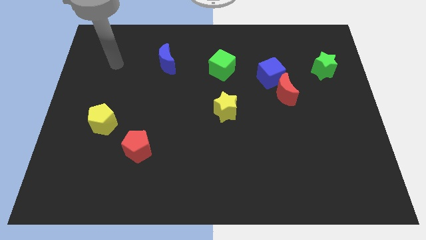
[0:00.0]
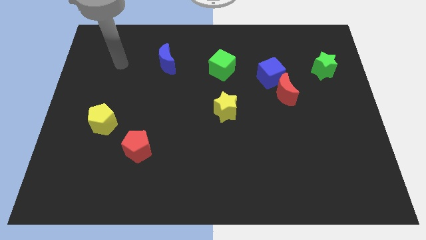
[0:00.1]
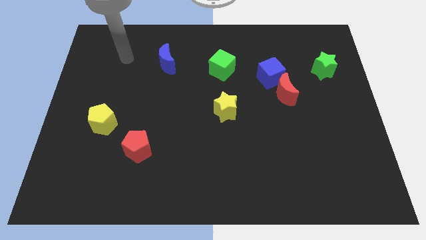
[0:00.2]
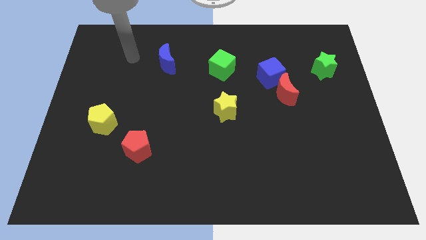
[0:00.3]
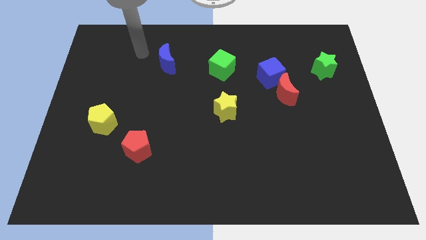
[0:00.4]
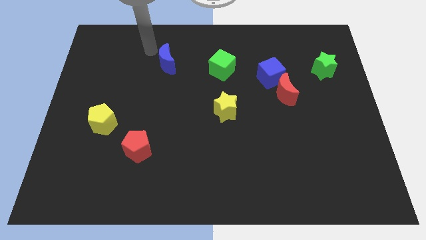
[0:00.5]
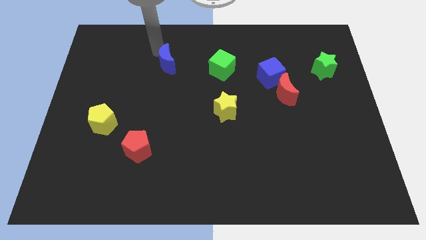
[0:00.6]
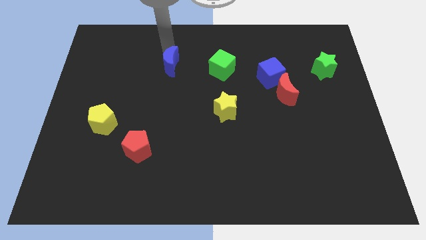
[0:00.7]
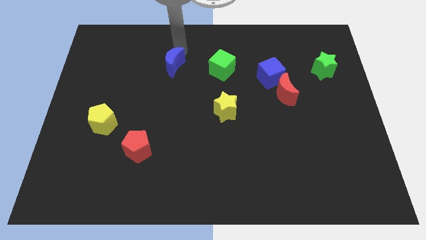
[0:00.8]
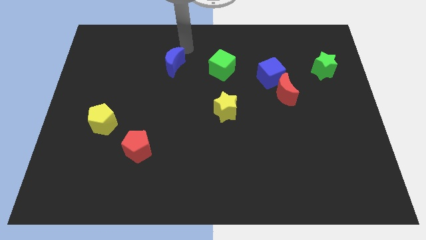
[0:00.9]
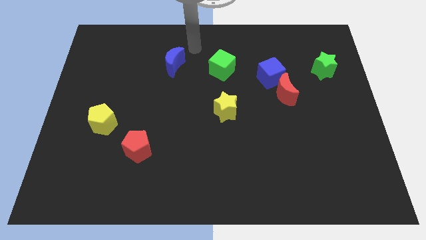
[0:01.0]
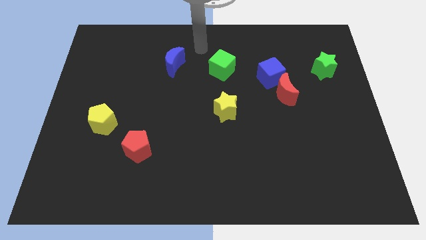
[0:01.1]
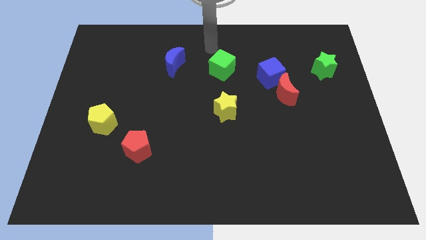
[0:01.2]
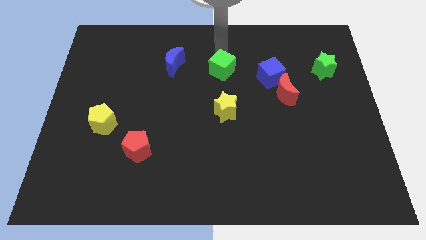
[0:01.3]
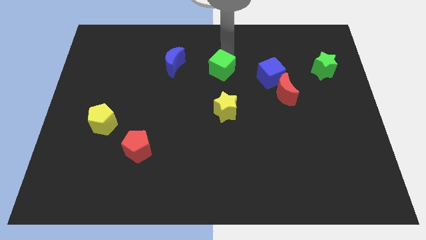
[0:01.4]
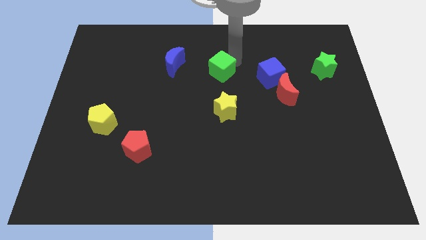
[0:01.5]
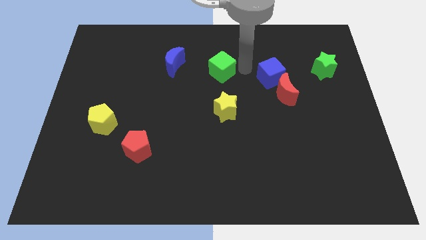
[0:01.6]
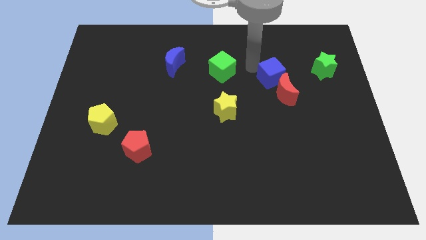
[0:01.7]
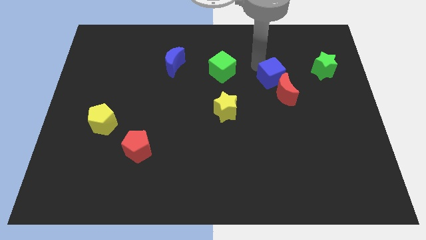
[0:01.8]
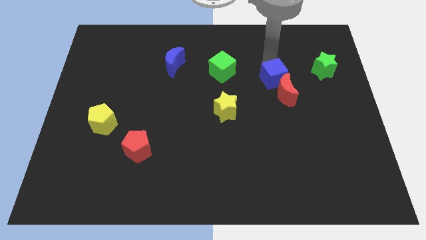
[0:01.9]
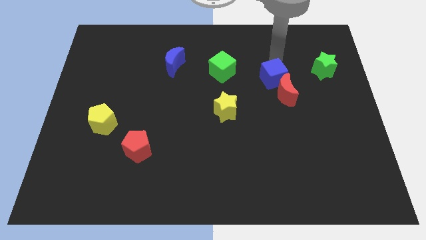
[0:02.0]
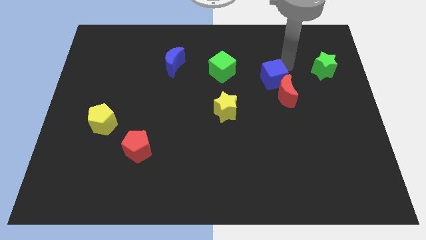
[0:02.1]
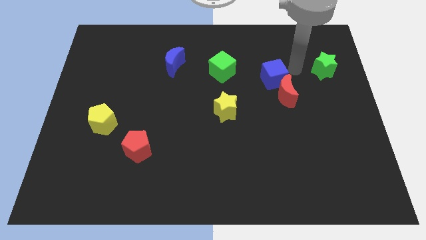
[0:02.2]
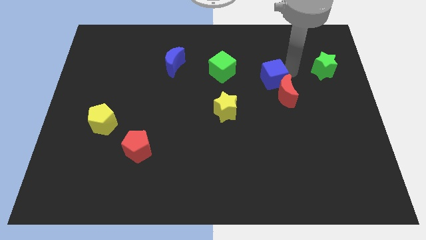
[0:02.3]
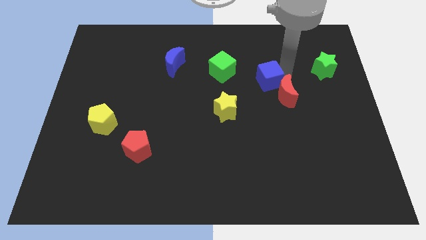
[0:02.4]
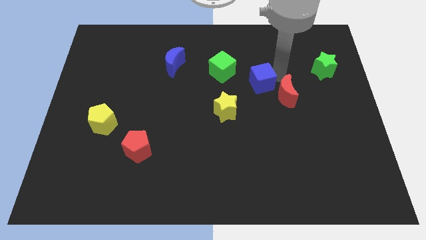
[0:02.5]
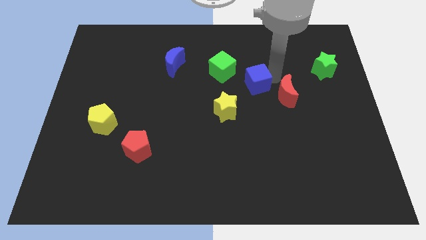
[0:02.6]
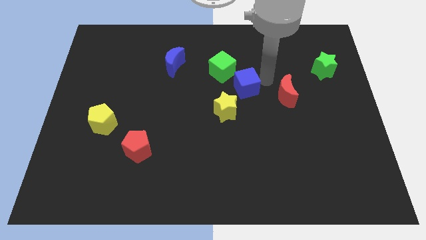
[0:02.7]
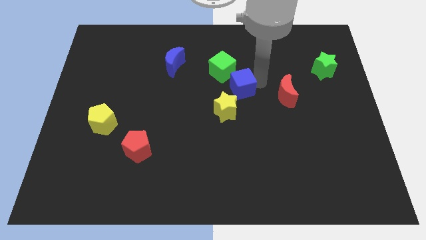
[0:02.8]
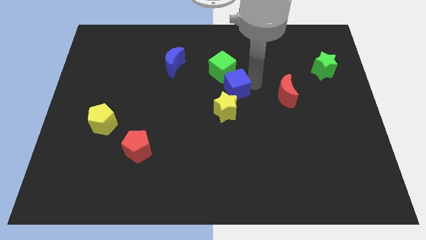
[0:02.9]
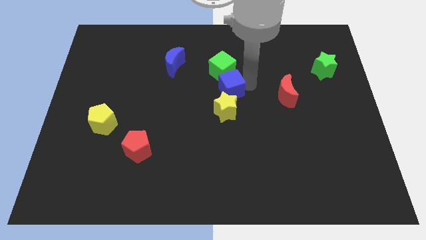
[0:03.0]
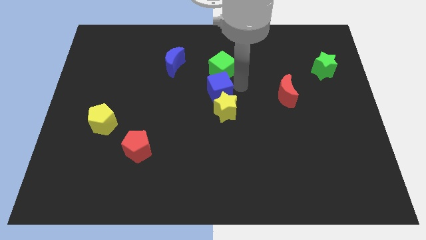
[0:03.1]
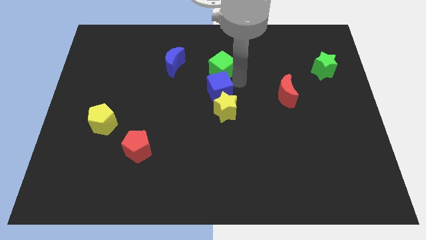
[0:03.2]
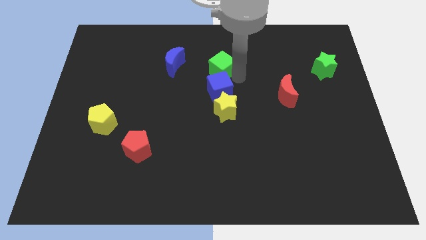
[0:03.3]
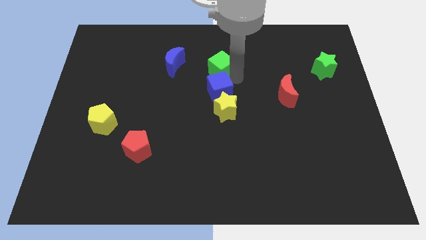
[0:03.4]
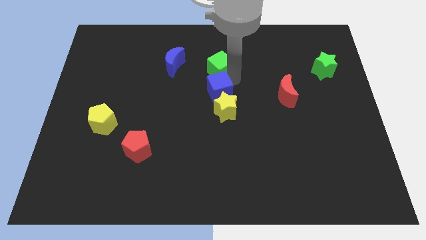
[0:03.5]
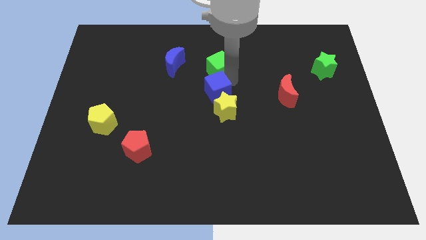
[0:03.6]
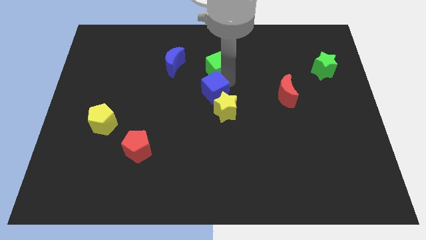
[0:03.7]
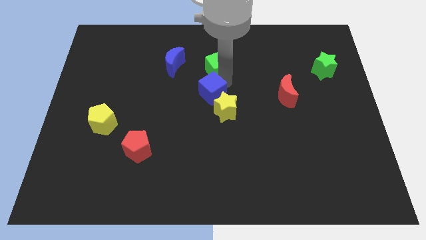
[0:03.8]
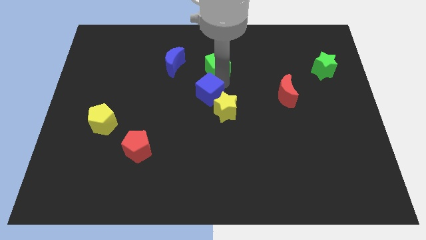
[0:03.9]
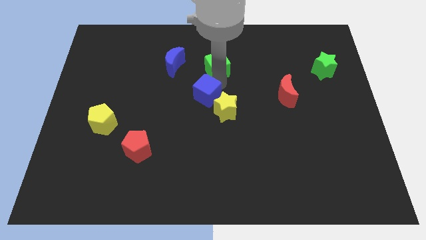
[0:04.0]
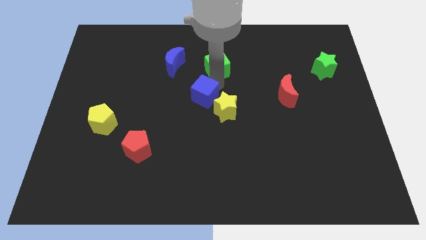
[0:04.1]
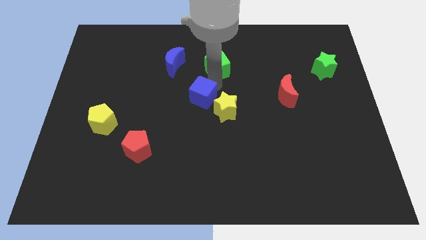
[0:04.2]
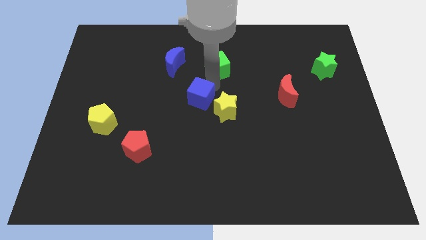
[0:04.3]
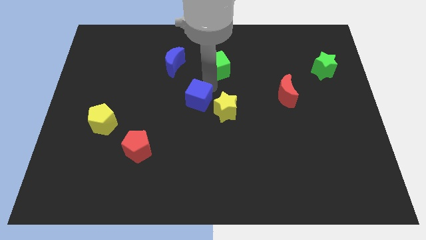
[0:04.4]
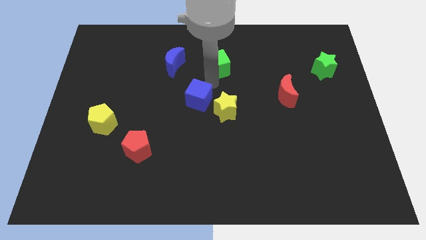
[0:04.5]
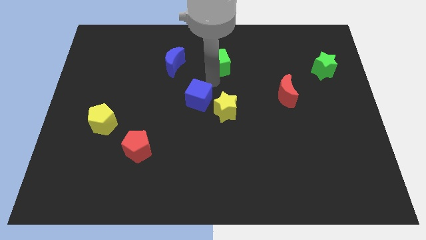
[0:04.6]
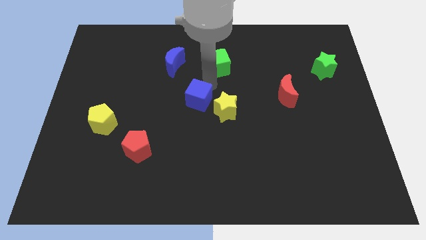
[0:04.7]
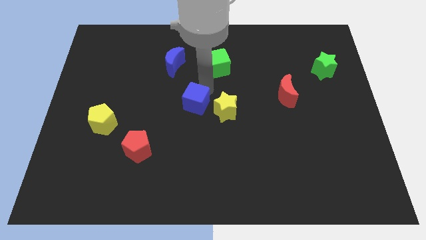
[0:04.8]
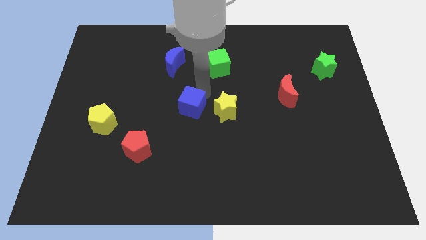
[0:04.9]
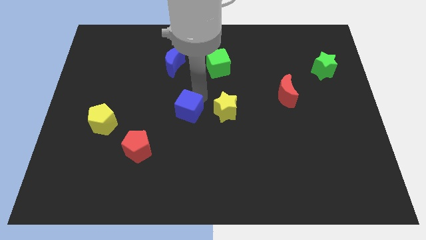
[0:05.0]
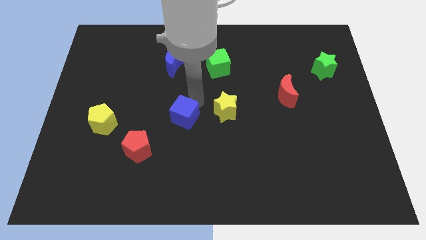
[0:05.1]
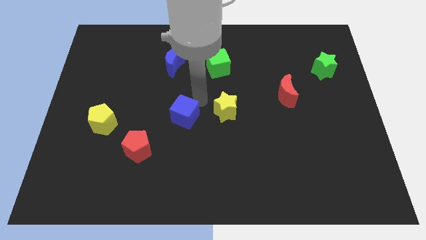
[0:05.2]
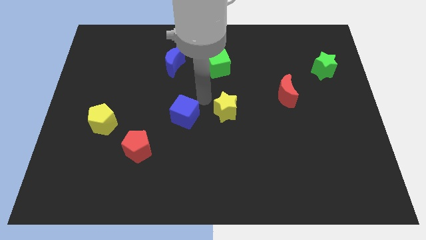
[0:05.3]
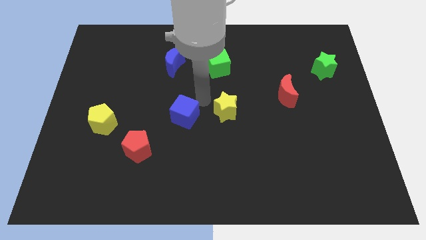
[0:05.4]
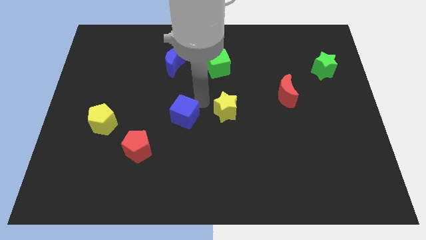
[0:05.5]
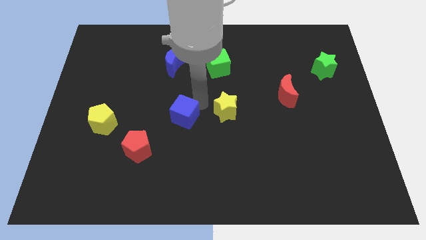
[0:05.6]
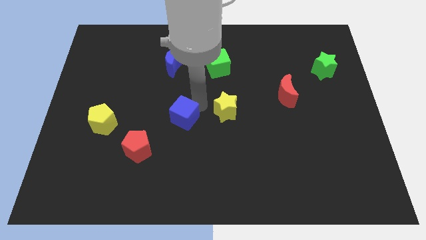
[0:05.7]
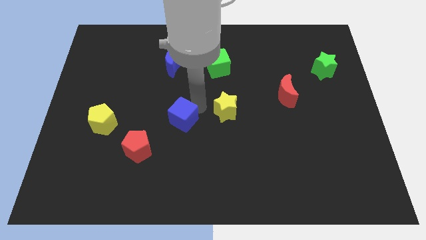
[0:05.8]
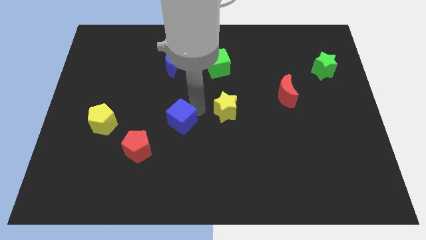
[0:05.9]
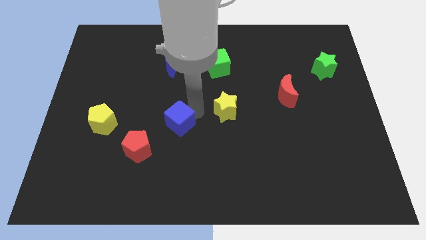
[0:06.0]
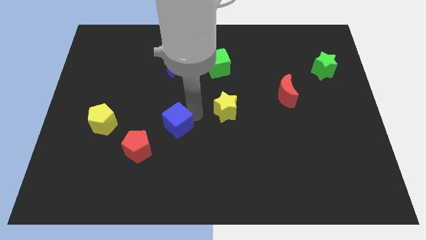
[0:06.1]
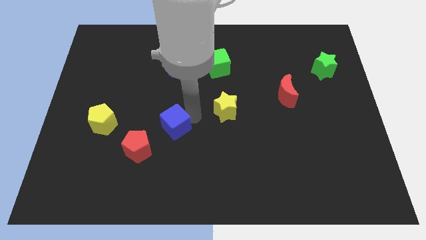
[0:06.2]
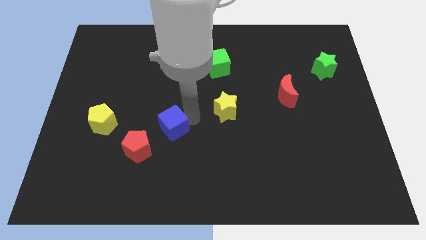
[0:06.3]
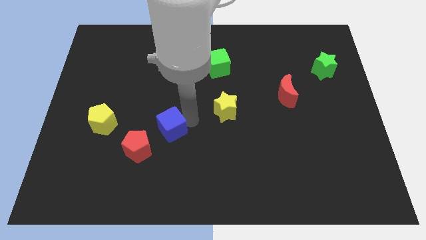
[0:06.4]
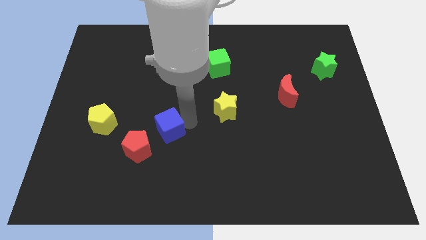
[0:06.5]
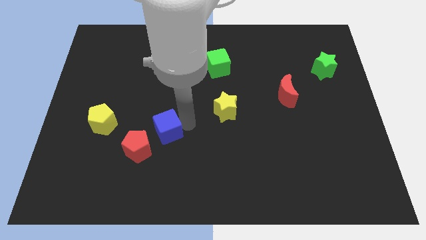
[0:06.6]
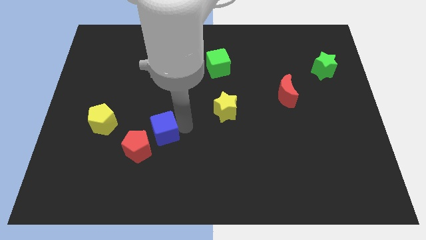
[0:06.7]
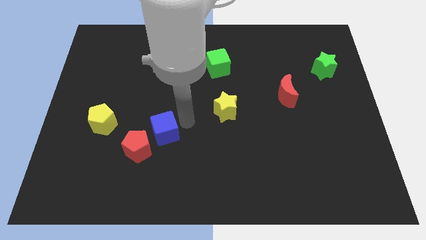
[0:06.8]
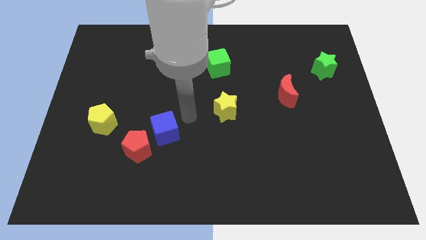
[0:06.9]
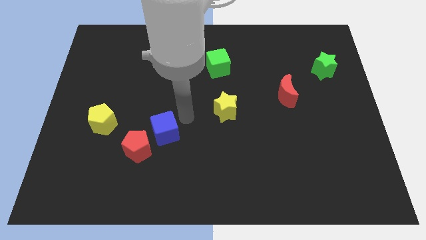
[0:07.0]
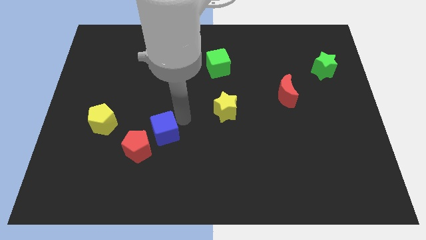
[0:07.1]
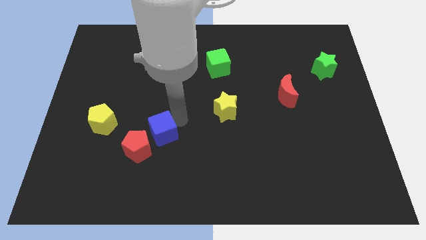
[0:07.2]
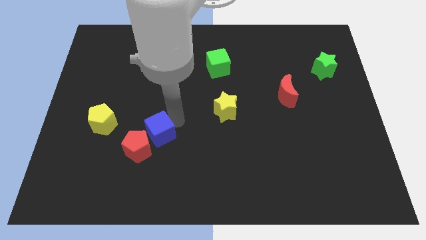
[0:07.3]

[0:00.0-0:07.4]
put the blue cube to the red pentagon
